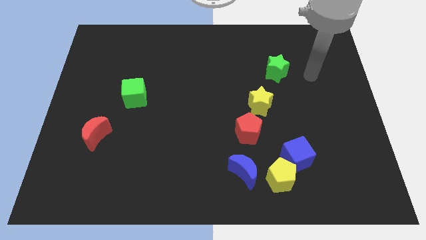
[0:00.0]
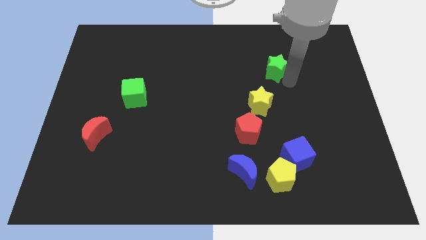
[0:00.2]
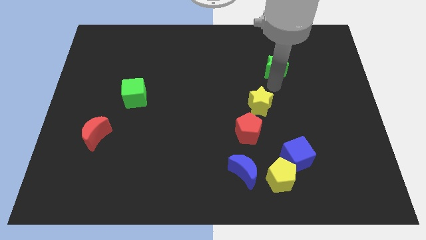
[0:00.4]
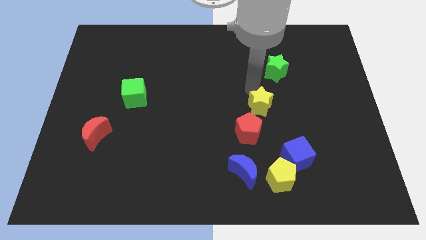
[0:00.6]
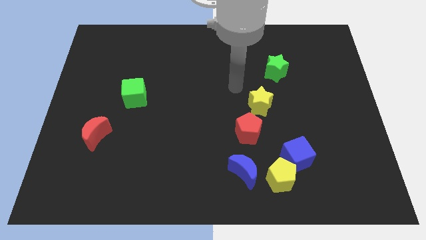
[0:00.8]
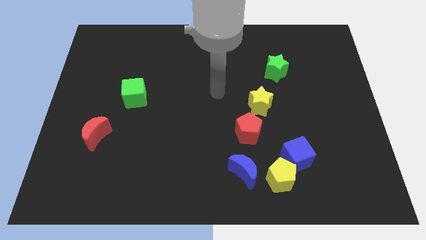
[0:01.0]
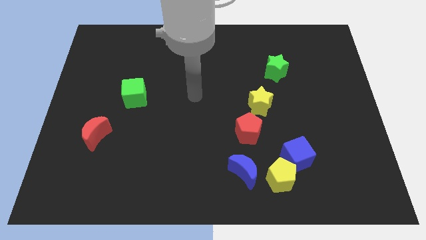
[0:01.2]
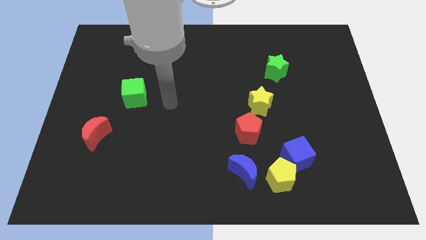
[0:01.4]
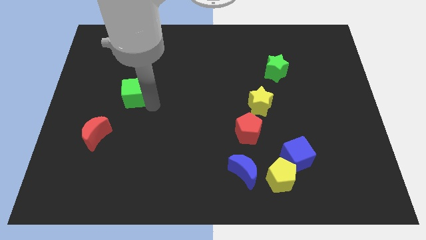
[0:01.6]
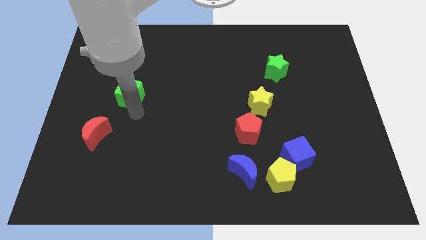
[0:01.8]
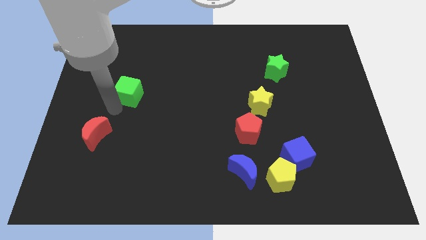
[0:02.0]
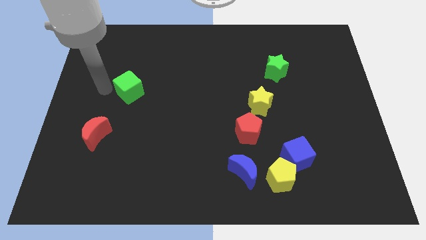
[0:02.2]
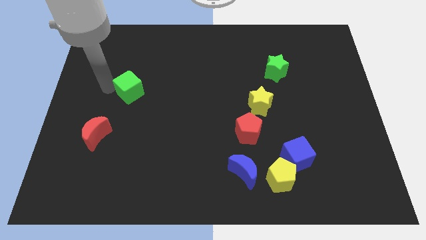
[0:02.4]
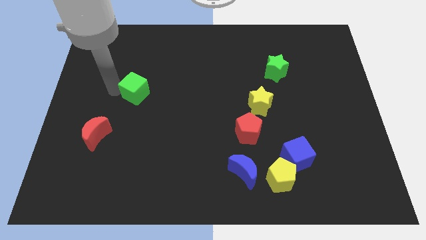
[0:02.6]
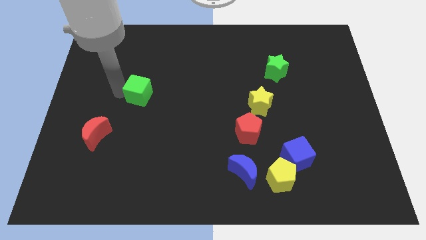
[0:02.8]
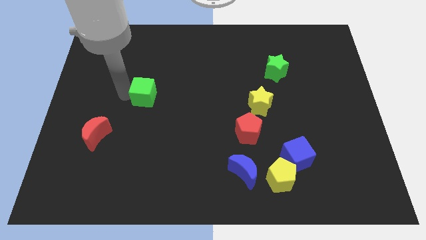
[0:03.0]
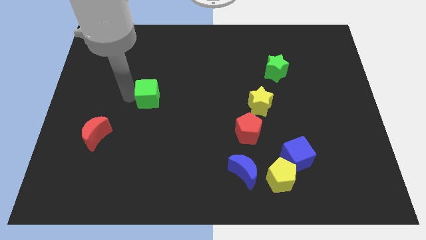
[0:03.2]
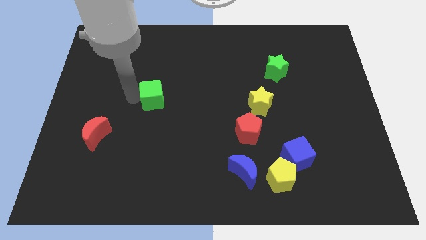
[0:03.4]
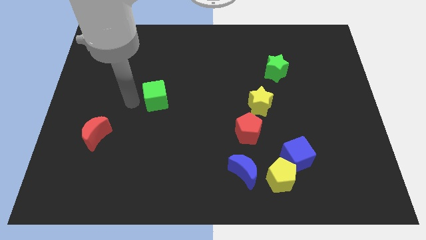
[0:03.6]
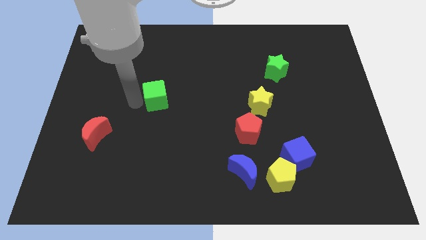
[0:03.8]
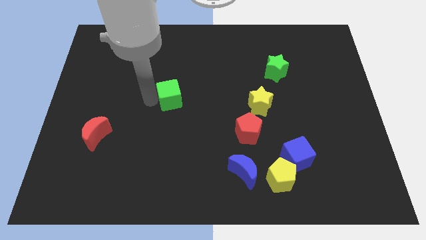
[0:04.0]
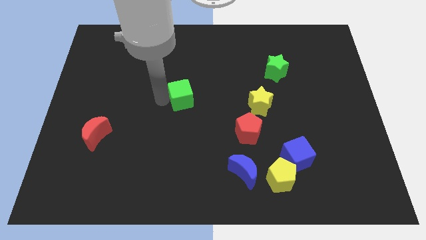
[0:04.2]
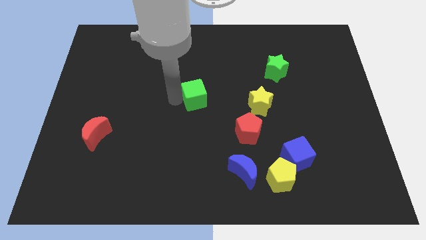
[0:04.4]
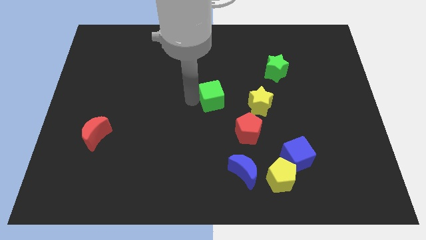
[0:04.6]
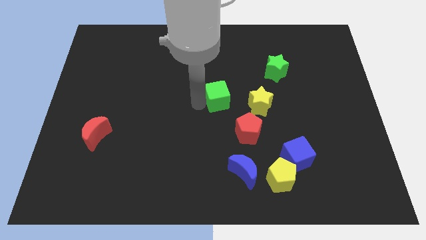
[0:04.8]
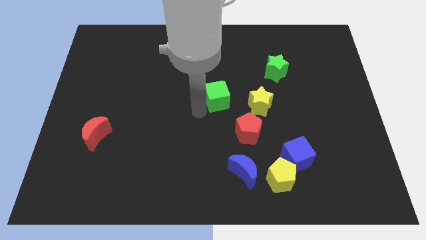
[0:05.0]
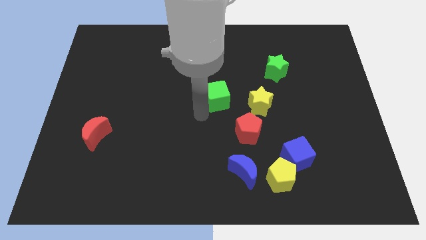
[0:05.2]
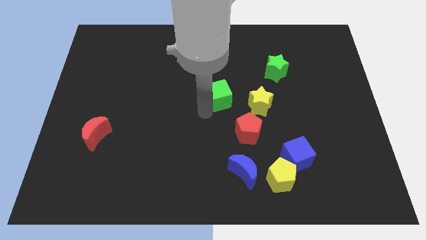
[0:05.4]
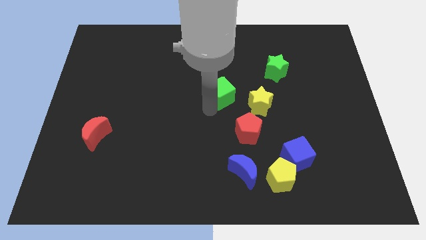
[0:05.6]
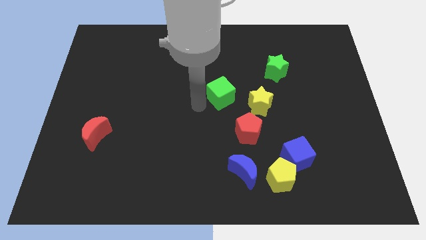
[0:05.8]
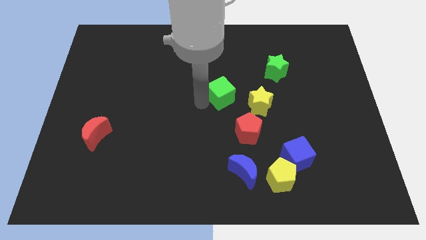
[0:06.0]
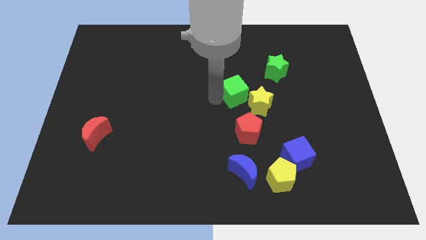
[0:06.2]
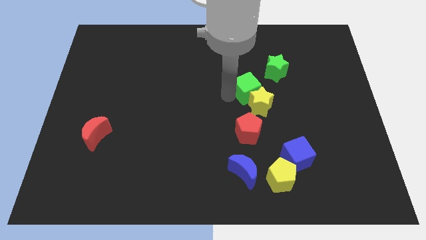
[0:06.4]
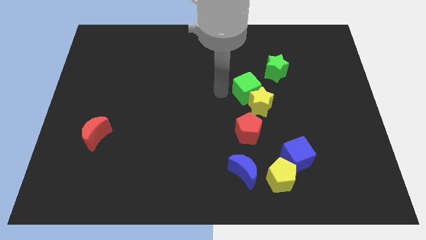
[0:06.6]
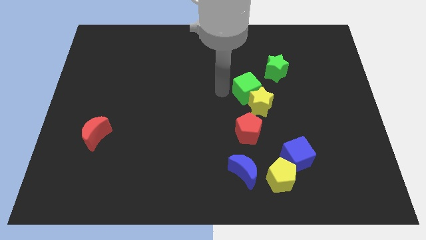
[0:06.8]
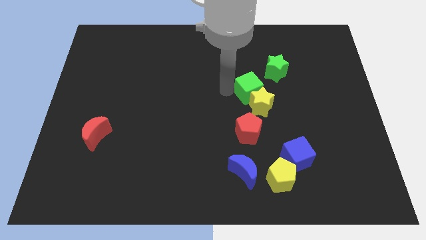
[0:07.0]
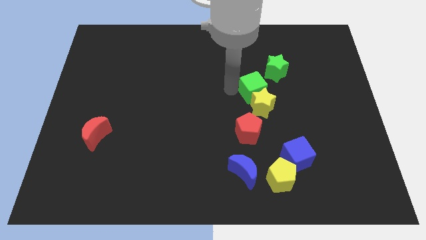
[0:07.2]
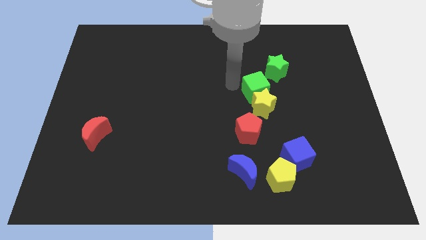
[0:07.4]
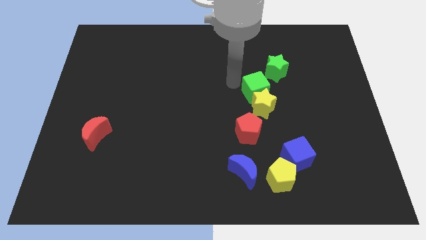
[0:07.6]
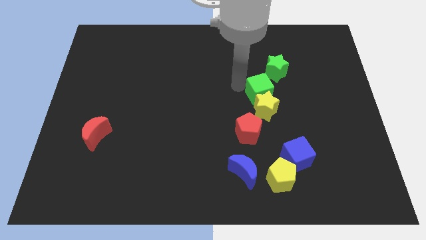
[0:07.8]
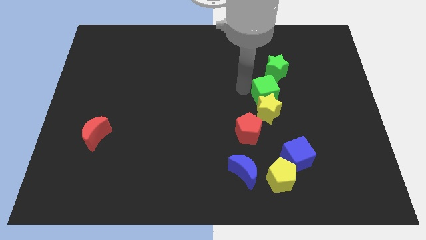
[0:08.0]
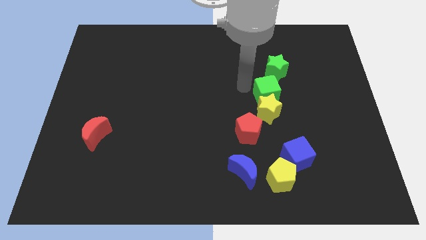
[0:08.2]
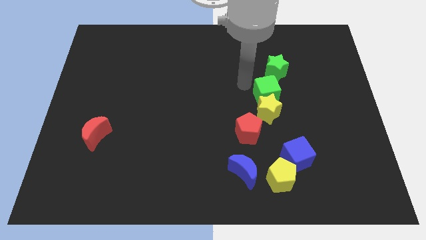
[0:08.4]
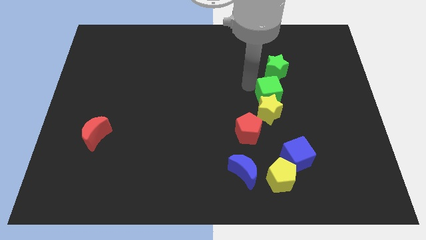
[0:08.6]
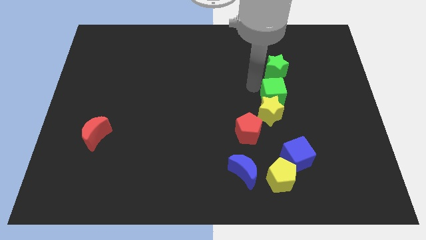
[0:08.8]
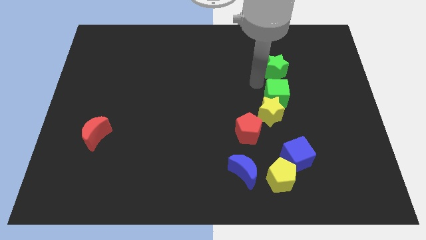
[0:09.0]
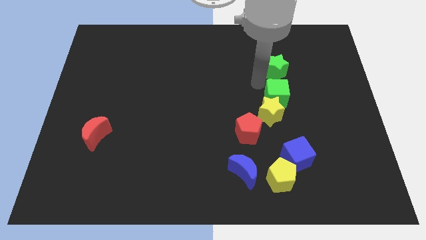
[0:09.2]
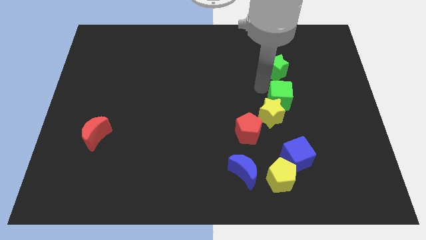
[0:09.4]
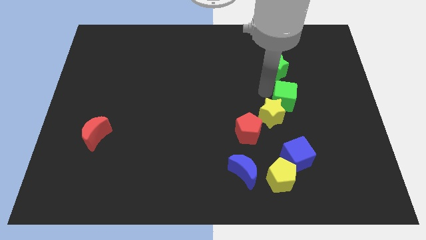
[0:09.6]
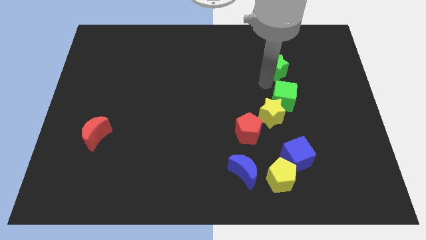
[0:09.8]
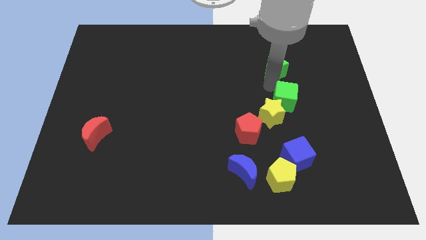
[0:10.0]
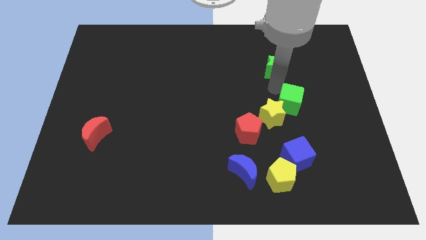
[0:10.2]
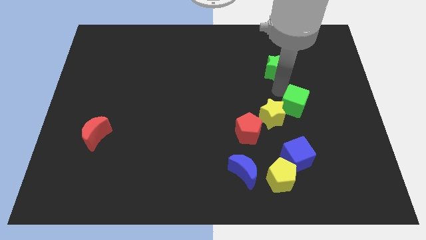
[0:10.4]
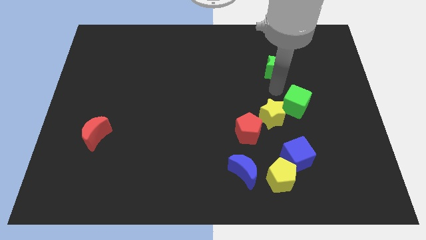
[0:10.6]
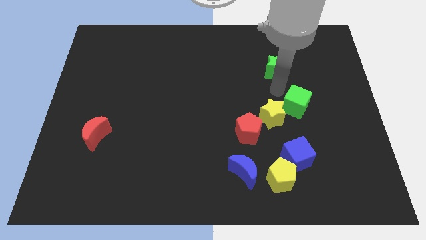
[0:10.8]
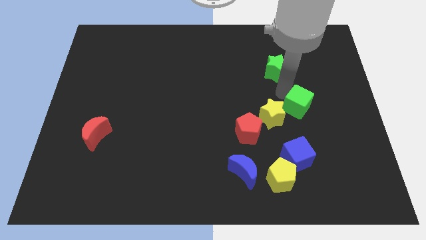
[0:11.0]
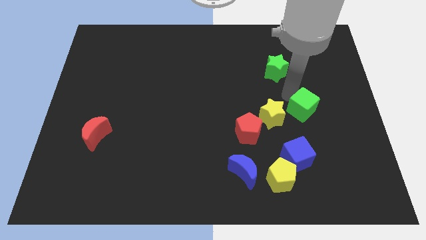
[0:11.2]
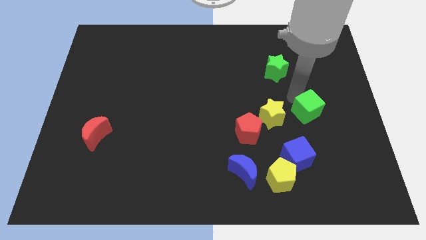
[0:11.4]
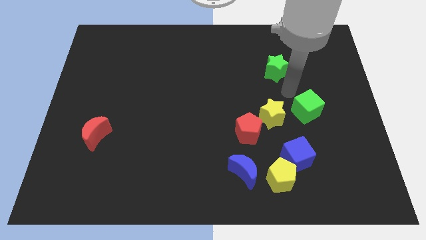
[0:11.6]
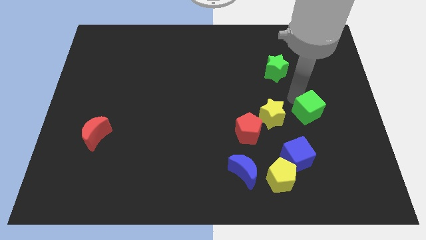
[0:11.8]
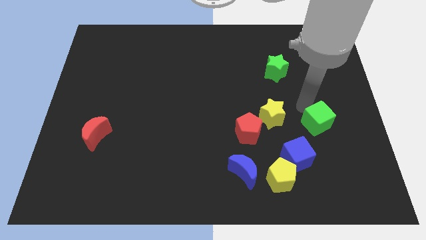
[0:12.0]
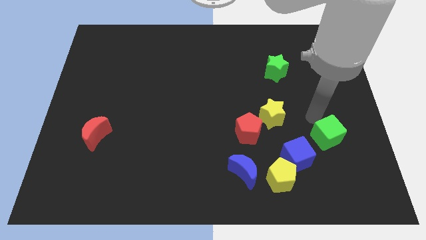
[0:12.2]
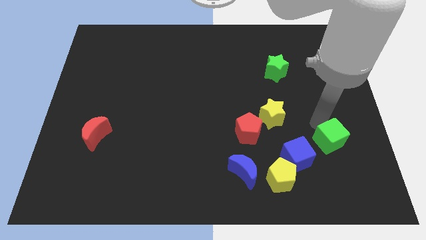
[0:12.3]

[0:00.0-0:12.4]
put the green cube right of the blue cube

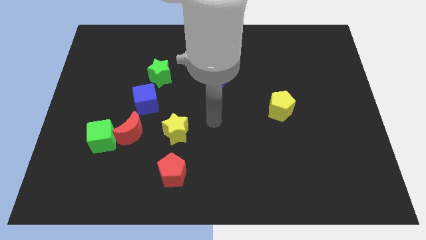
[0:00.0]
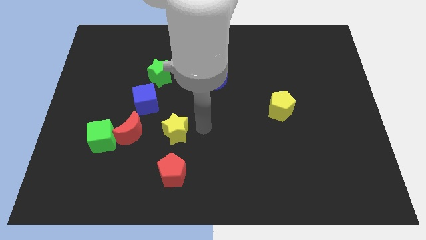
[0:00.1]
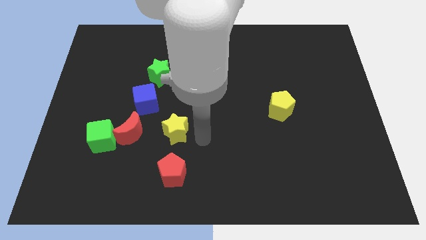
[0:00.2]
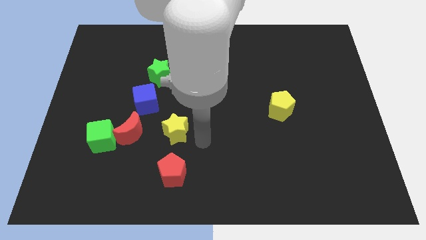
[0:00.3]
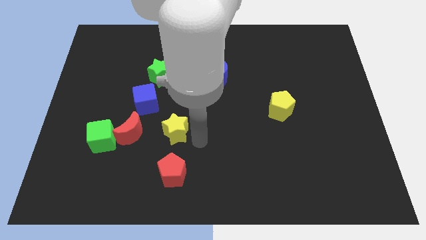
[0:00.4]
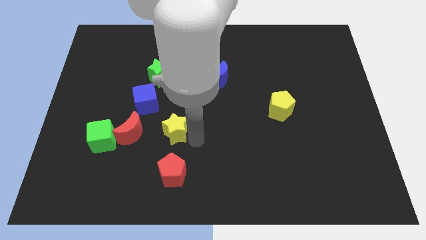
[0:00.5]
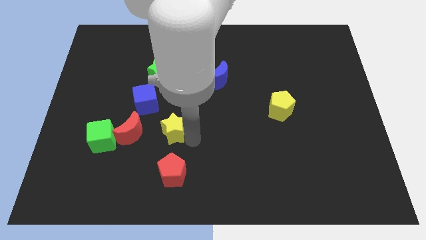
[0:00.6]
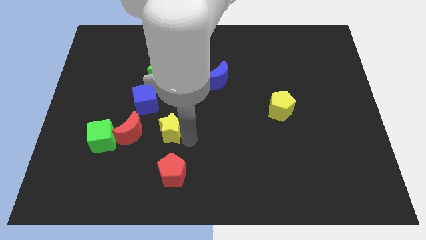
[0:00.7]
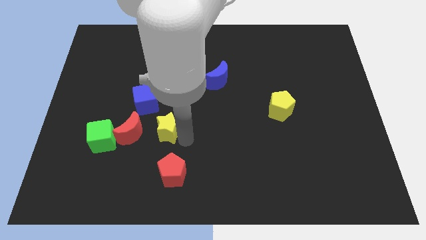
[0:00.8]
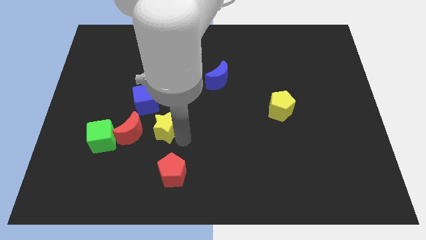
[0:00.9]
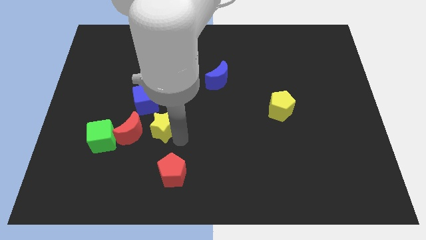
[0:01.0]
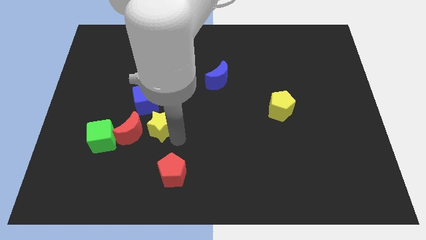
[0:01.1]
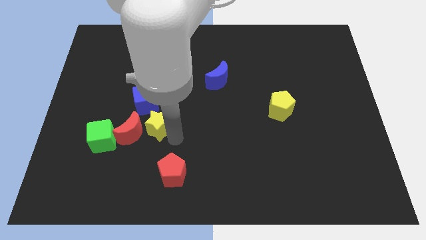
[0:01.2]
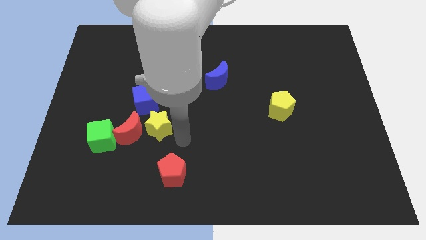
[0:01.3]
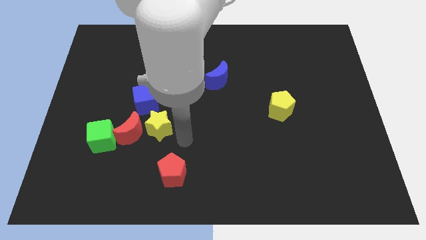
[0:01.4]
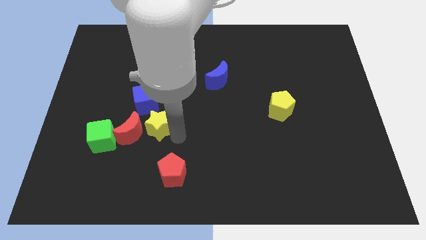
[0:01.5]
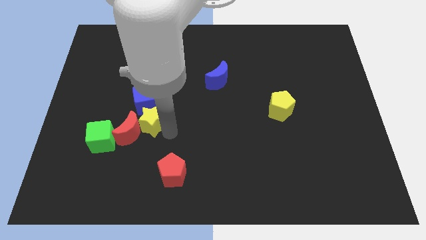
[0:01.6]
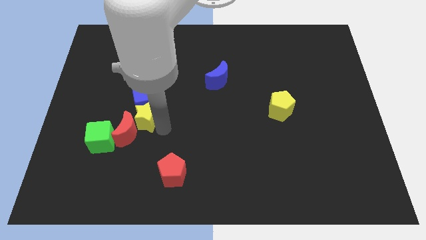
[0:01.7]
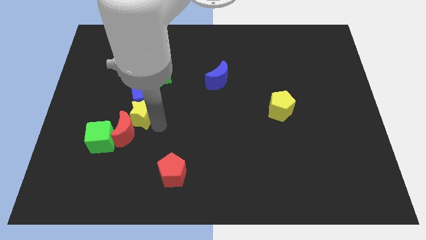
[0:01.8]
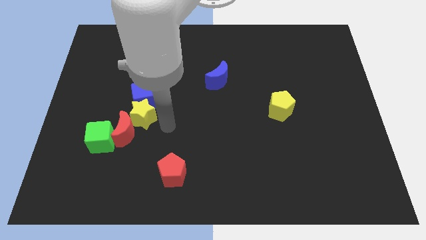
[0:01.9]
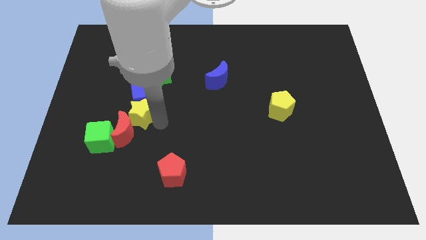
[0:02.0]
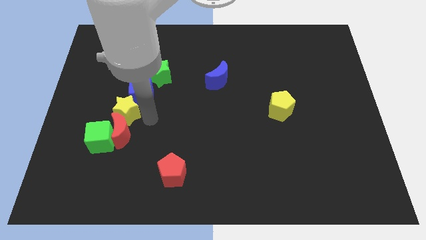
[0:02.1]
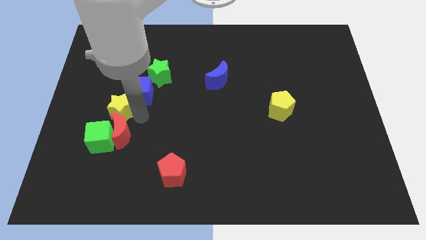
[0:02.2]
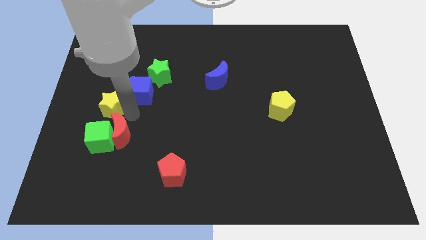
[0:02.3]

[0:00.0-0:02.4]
move the yellow star just left of the blue cube
